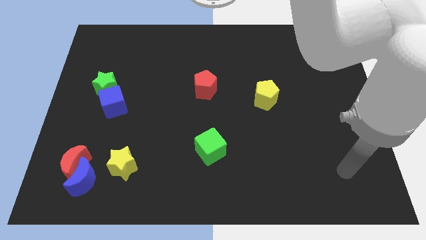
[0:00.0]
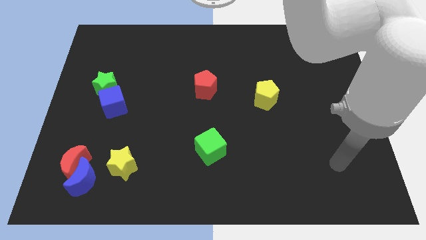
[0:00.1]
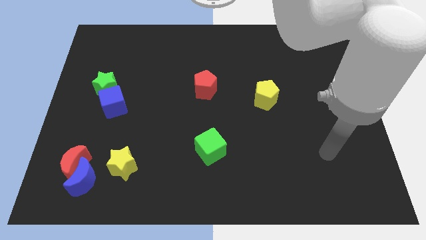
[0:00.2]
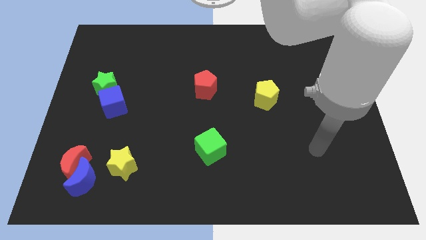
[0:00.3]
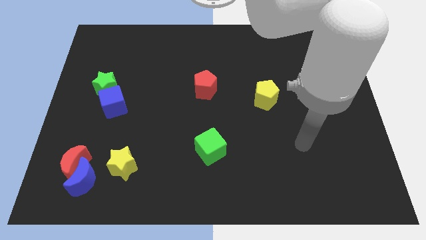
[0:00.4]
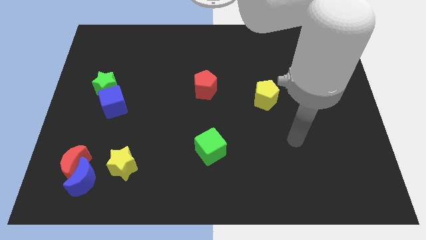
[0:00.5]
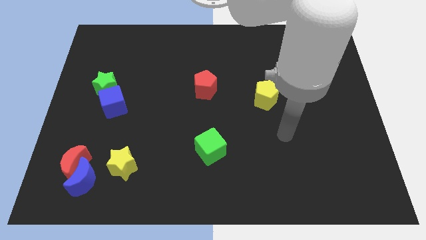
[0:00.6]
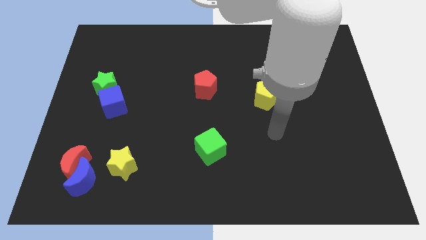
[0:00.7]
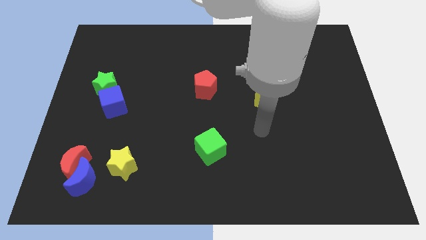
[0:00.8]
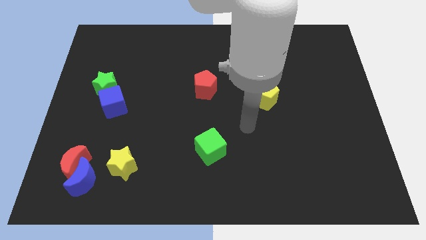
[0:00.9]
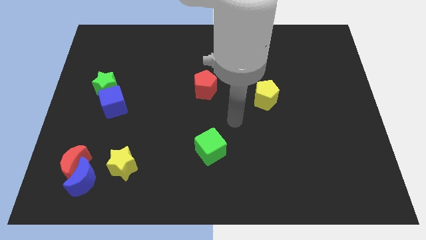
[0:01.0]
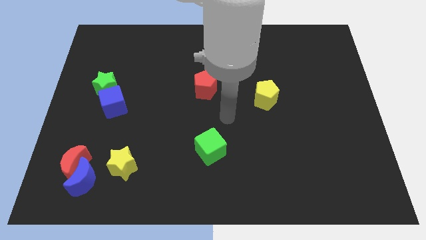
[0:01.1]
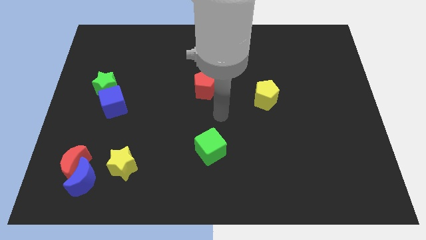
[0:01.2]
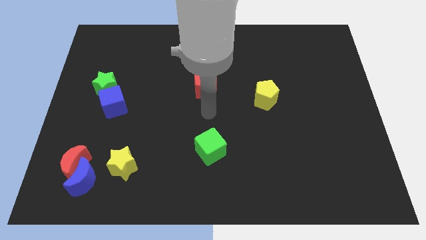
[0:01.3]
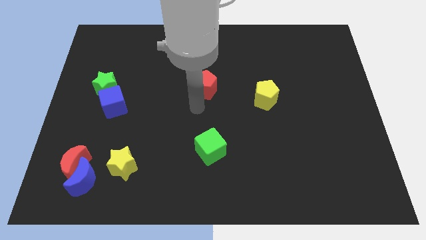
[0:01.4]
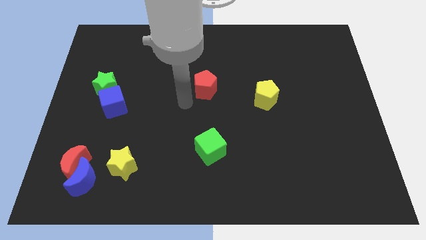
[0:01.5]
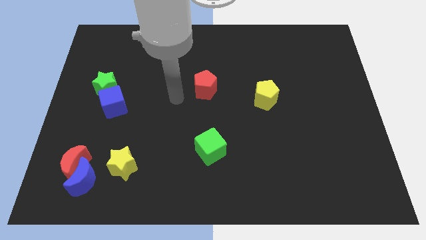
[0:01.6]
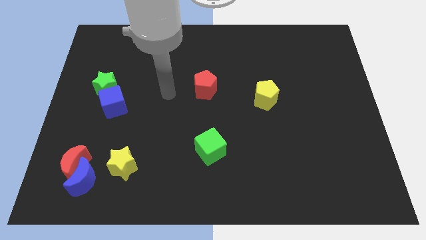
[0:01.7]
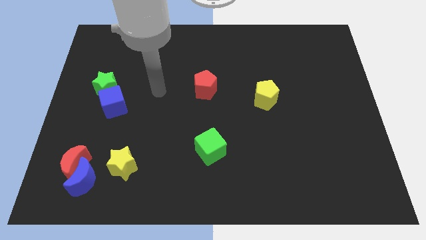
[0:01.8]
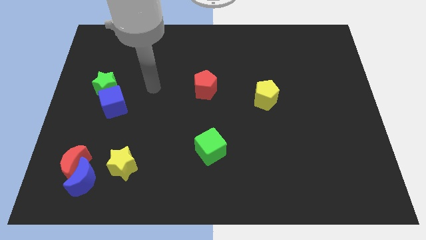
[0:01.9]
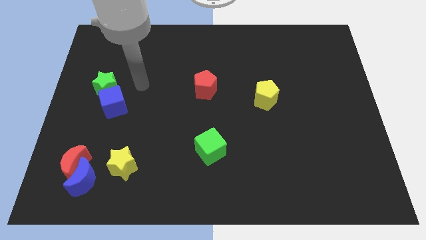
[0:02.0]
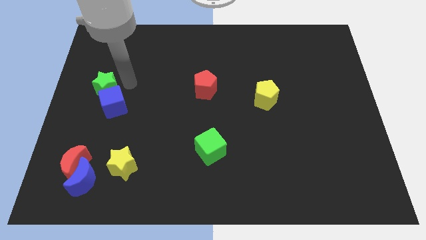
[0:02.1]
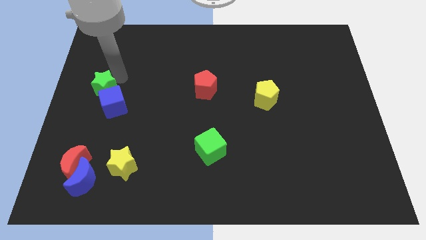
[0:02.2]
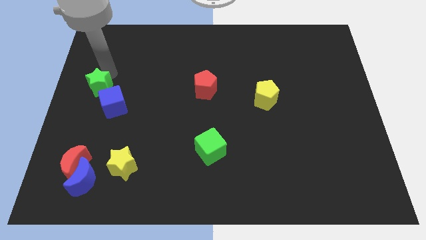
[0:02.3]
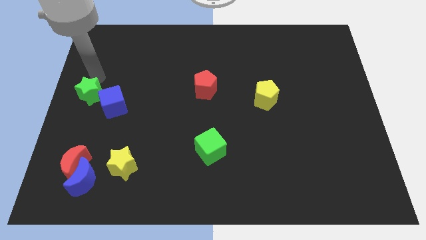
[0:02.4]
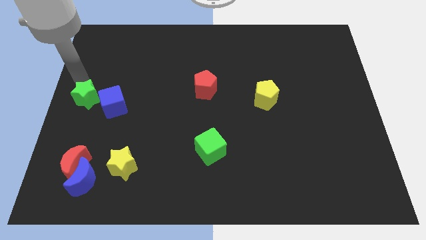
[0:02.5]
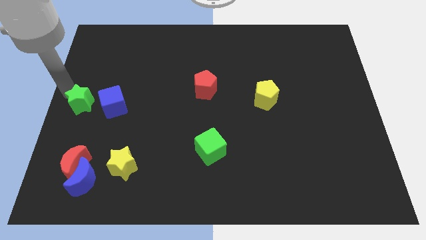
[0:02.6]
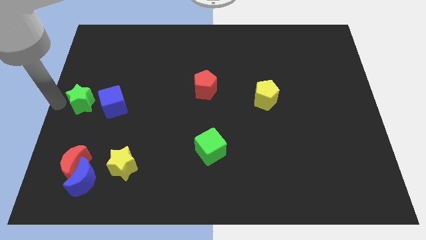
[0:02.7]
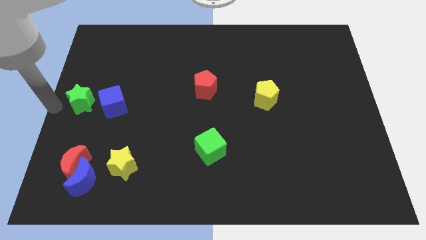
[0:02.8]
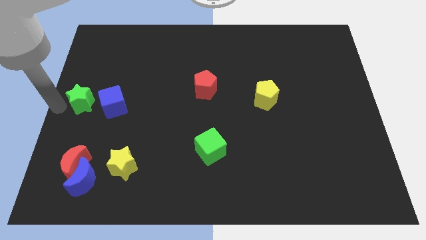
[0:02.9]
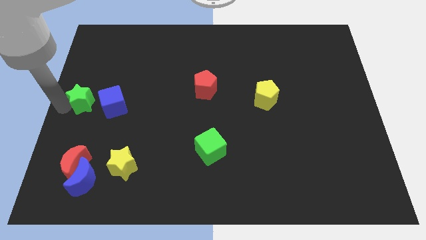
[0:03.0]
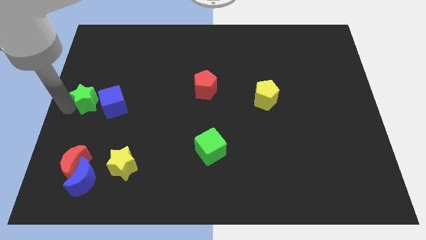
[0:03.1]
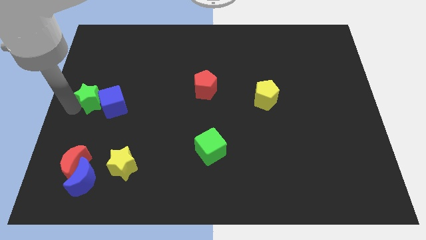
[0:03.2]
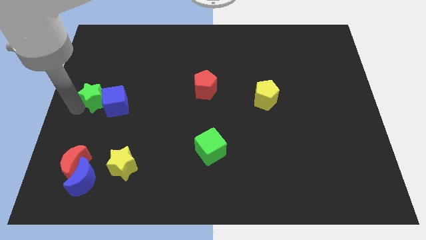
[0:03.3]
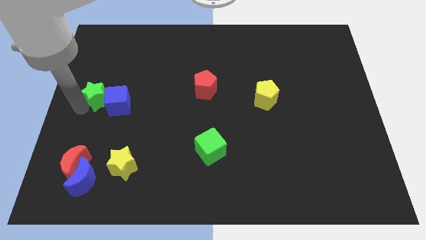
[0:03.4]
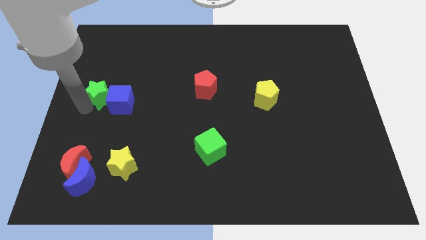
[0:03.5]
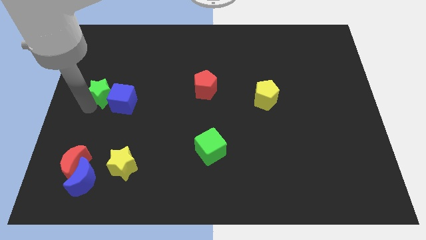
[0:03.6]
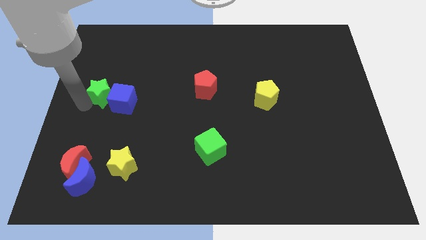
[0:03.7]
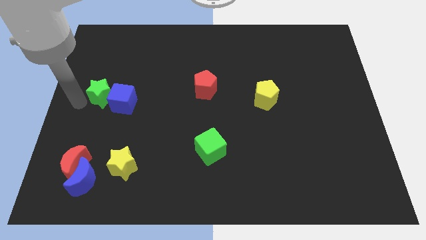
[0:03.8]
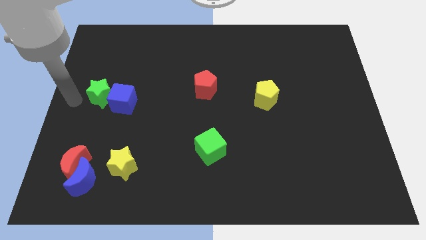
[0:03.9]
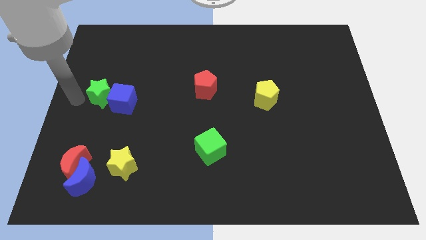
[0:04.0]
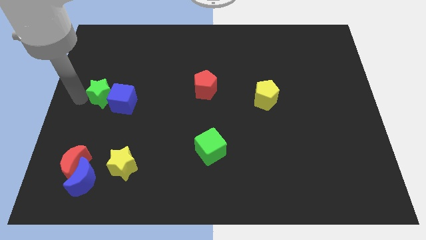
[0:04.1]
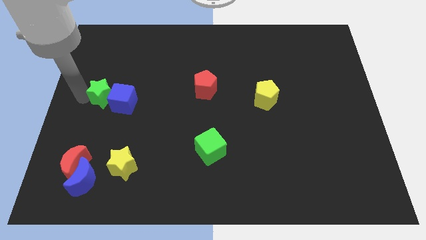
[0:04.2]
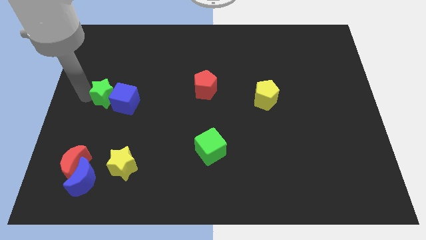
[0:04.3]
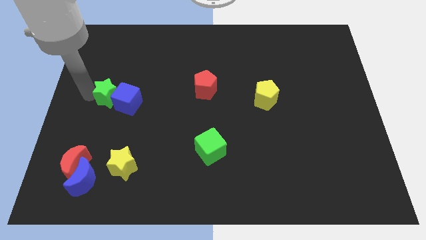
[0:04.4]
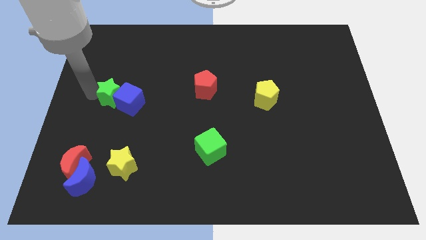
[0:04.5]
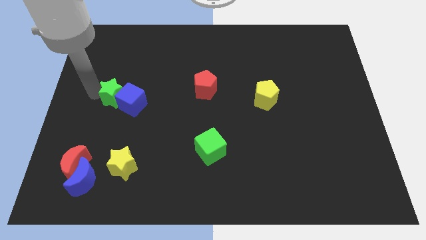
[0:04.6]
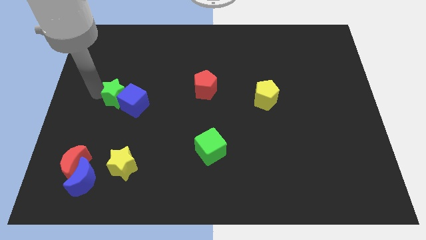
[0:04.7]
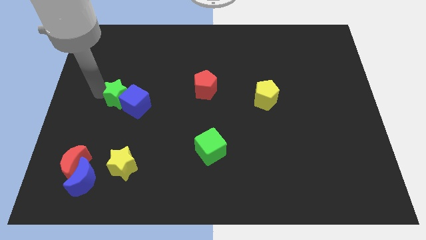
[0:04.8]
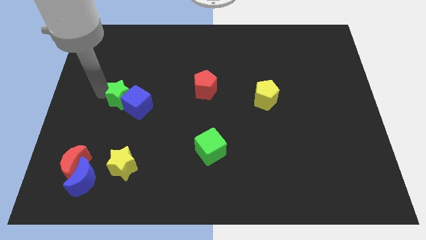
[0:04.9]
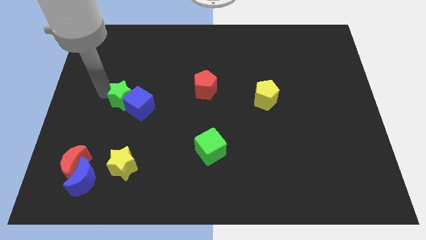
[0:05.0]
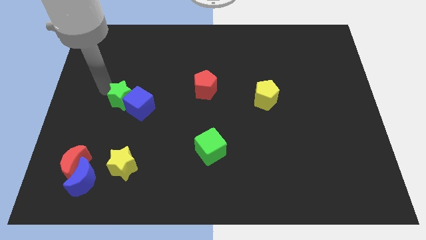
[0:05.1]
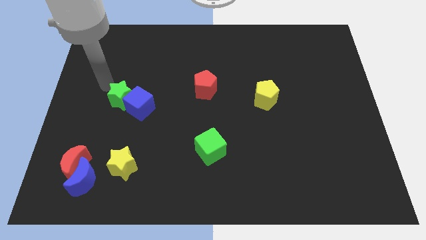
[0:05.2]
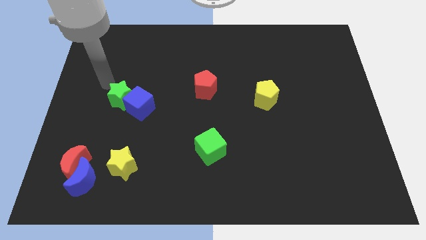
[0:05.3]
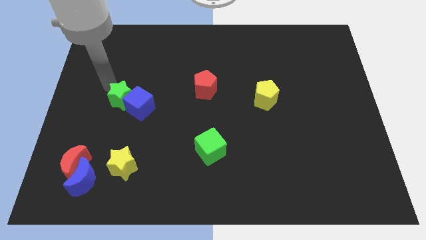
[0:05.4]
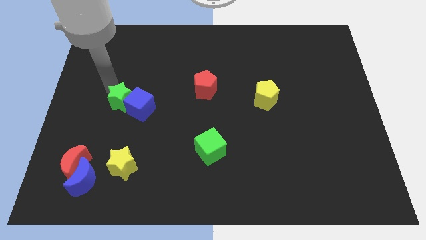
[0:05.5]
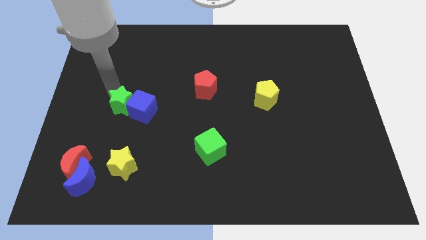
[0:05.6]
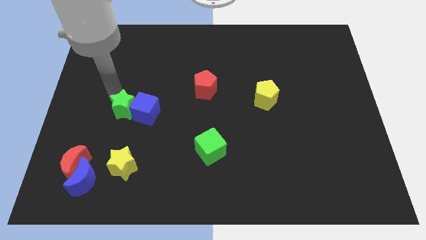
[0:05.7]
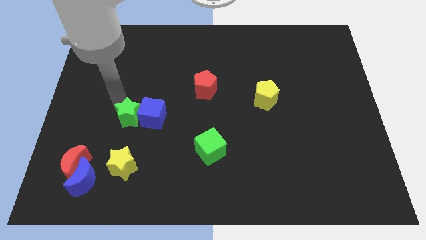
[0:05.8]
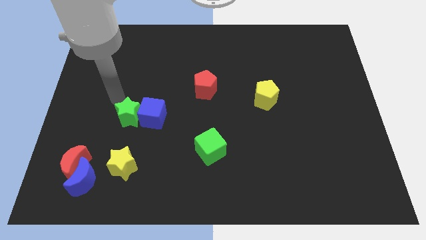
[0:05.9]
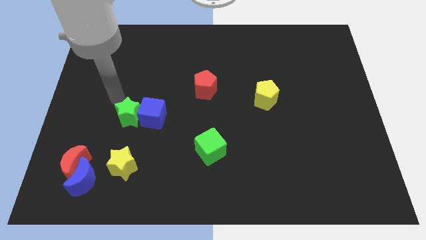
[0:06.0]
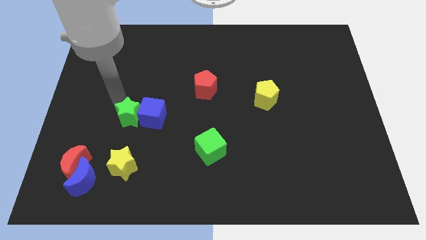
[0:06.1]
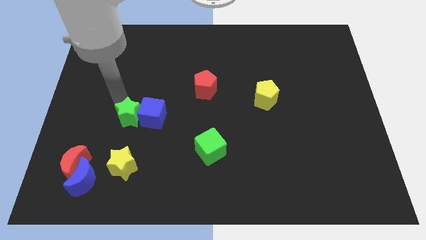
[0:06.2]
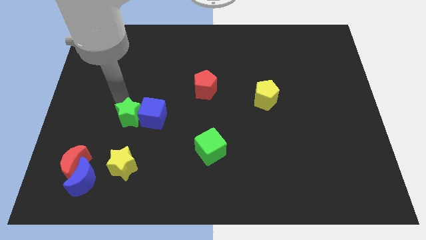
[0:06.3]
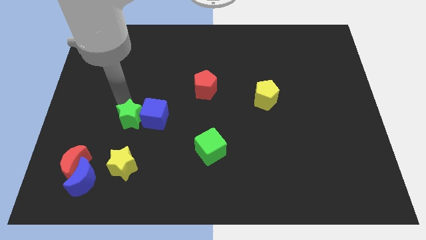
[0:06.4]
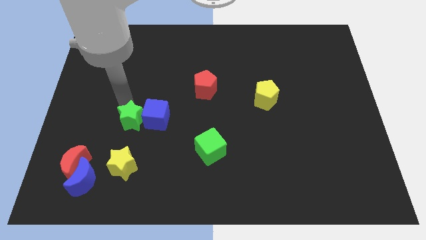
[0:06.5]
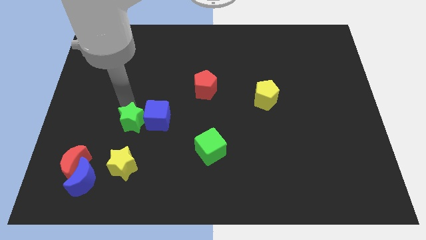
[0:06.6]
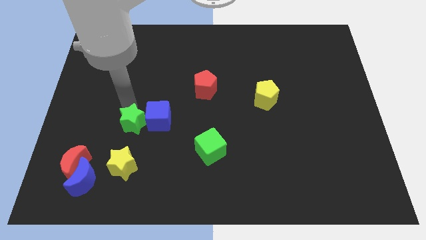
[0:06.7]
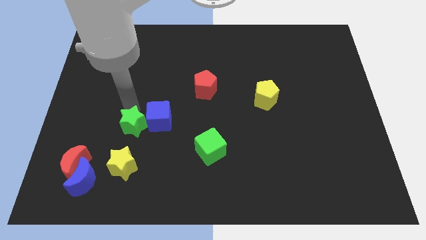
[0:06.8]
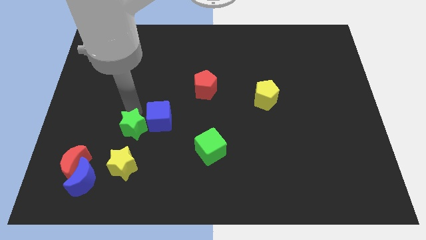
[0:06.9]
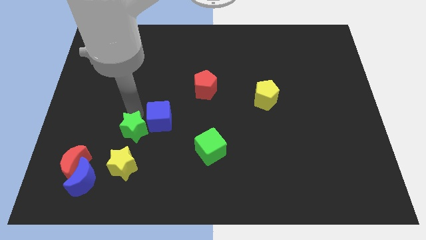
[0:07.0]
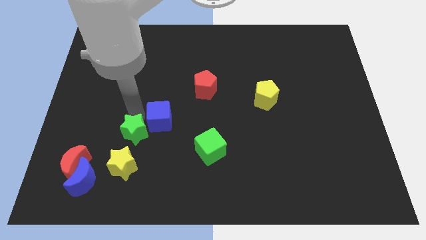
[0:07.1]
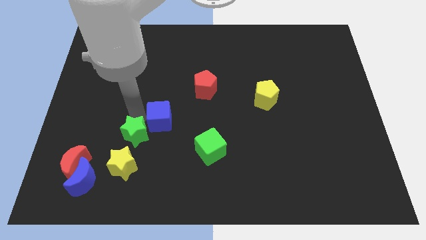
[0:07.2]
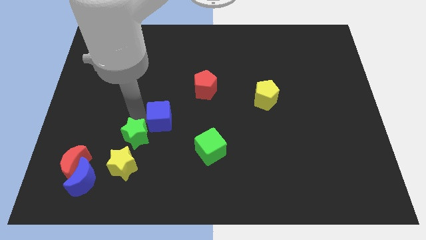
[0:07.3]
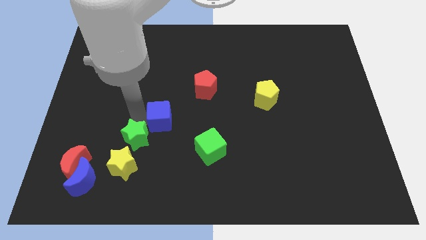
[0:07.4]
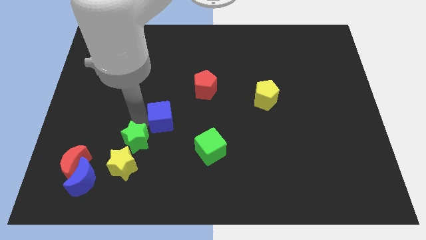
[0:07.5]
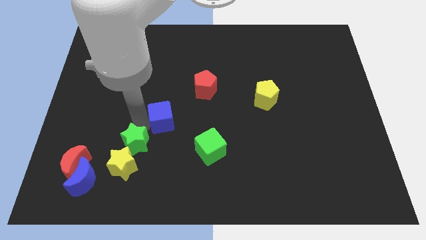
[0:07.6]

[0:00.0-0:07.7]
slide the green star towards the yellow star

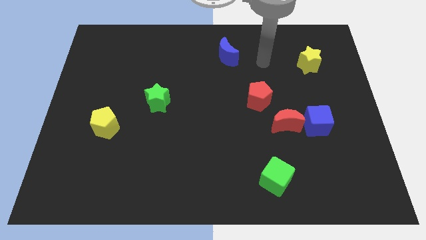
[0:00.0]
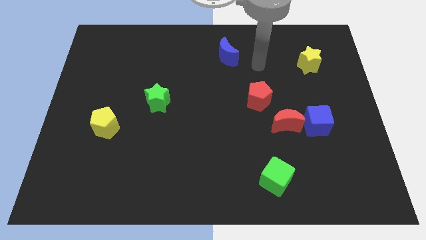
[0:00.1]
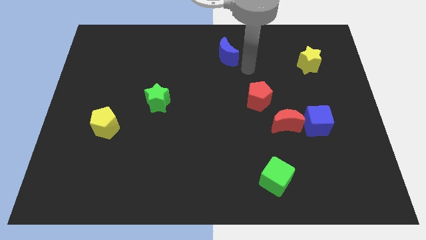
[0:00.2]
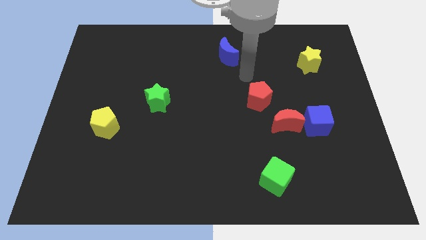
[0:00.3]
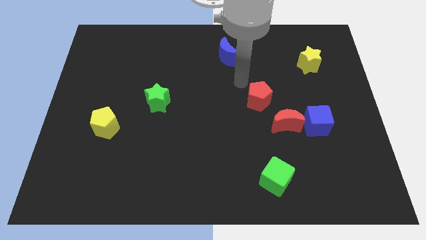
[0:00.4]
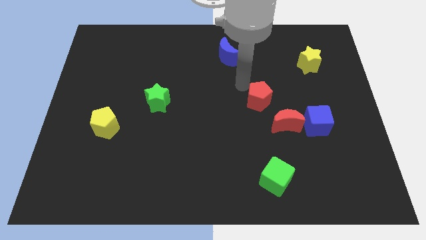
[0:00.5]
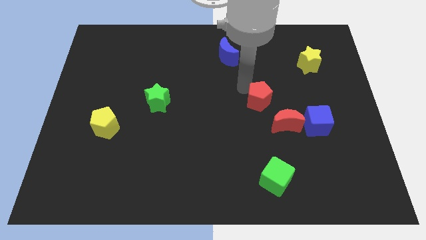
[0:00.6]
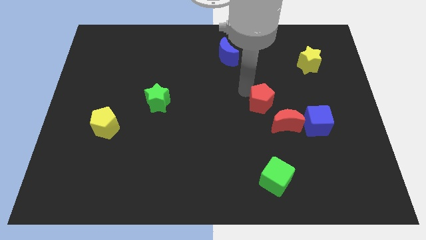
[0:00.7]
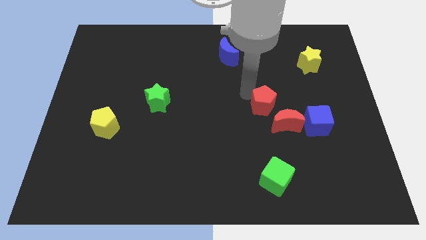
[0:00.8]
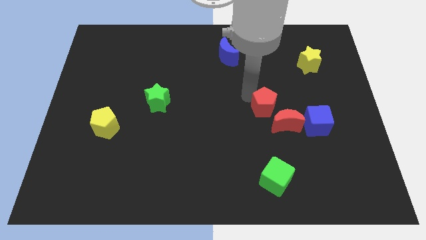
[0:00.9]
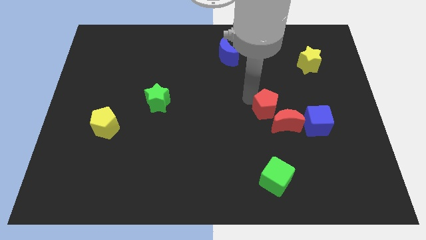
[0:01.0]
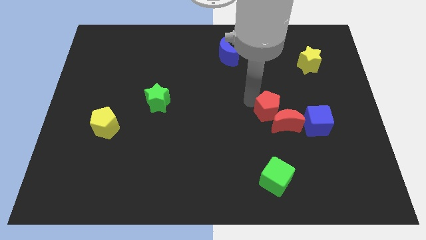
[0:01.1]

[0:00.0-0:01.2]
push the red pentagon next to the red moon
